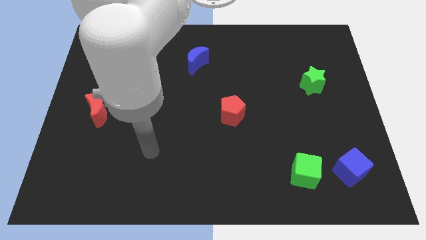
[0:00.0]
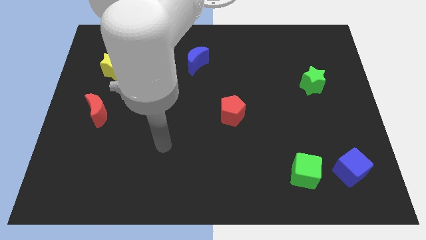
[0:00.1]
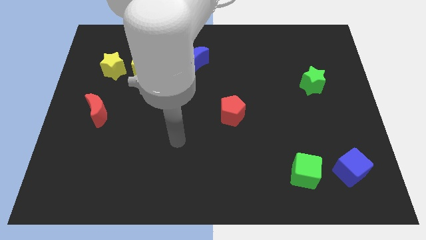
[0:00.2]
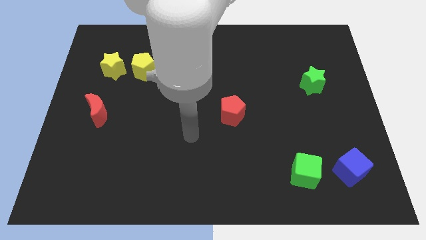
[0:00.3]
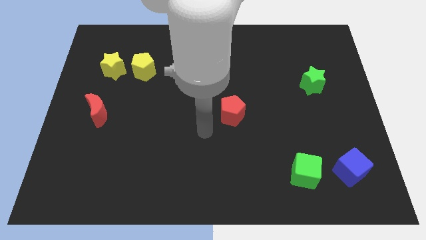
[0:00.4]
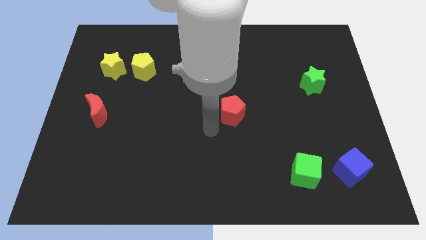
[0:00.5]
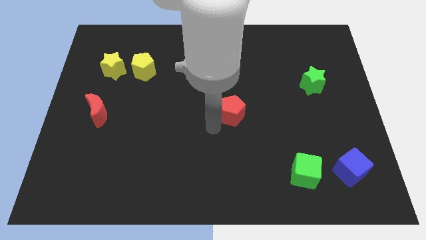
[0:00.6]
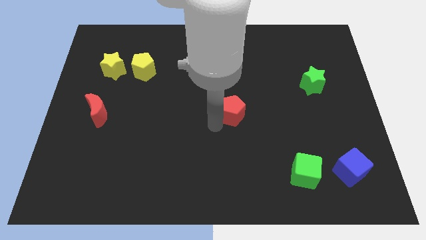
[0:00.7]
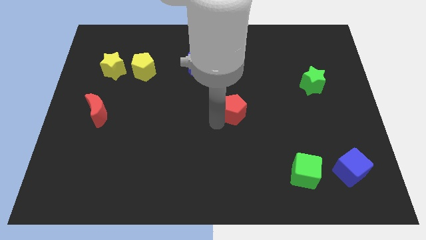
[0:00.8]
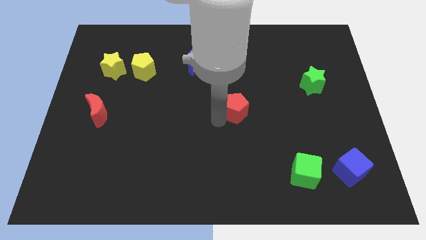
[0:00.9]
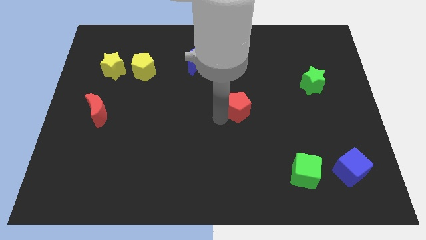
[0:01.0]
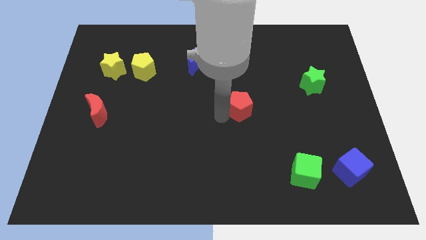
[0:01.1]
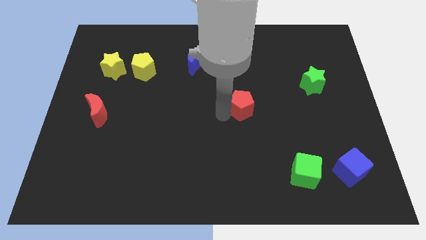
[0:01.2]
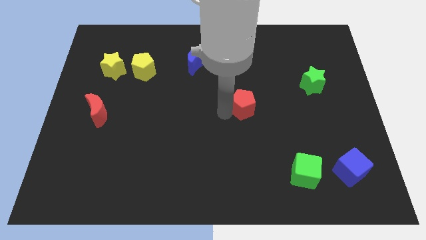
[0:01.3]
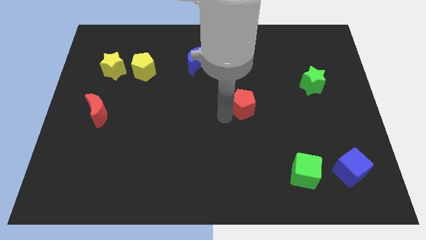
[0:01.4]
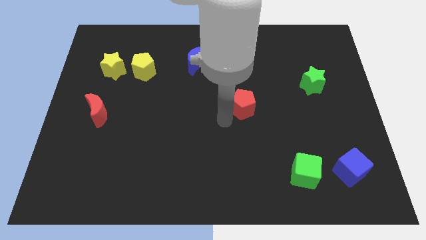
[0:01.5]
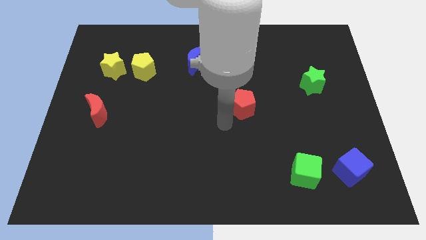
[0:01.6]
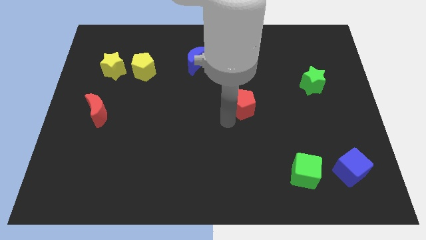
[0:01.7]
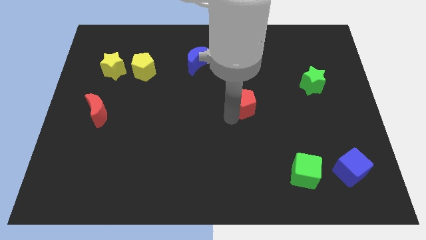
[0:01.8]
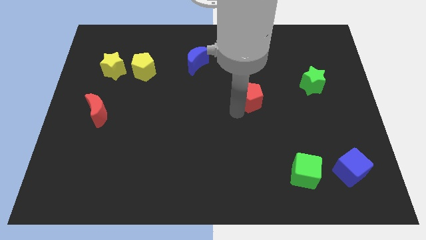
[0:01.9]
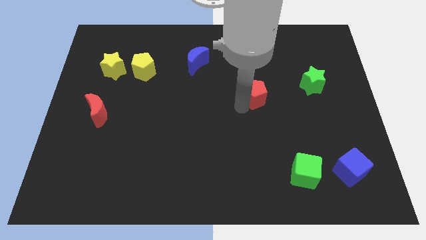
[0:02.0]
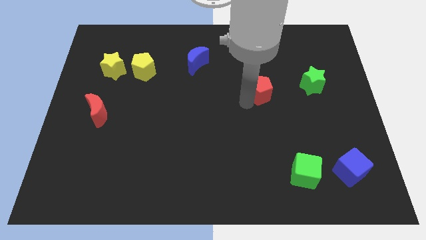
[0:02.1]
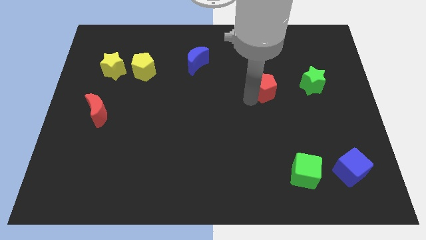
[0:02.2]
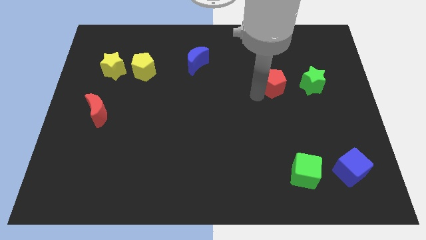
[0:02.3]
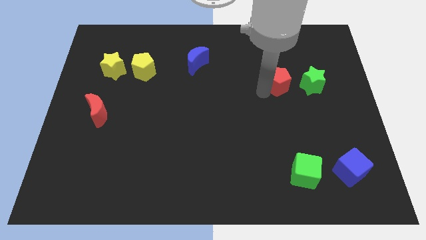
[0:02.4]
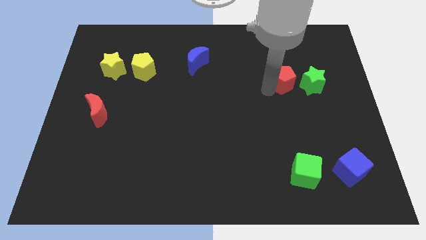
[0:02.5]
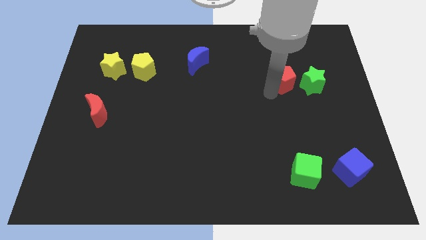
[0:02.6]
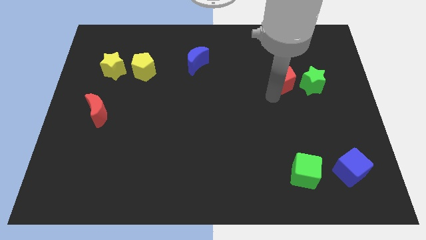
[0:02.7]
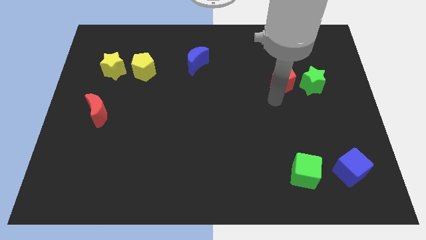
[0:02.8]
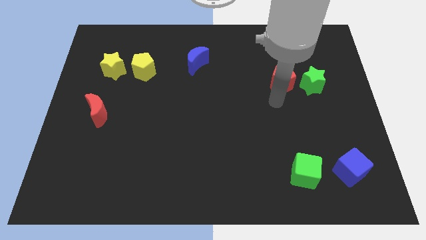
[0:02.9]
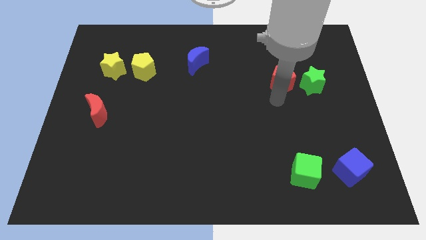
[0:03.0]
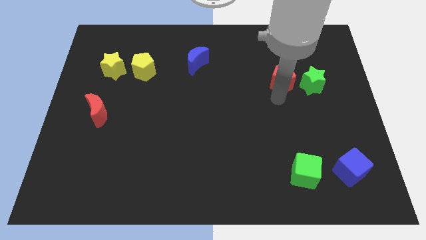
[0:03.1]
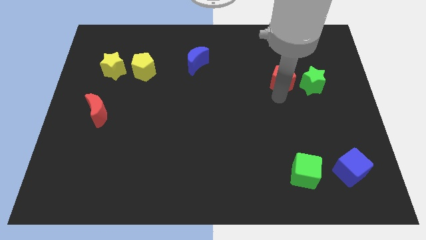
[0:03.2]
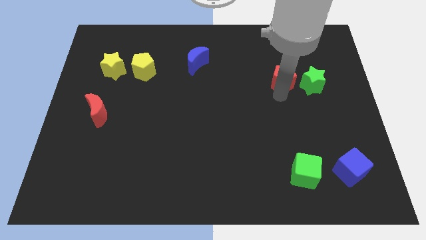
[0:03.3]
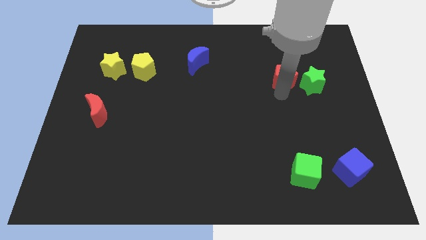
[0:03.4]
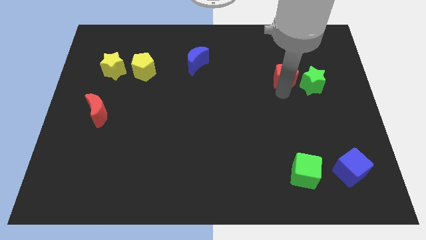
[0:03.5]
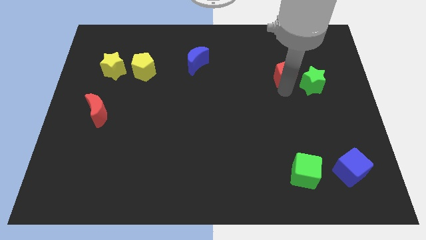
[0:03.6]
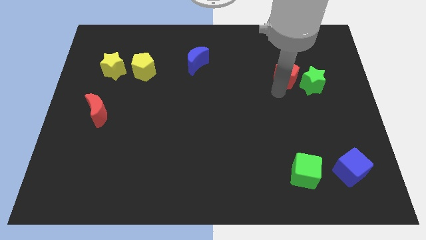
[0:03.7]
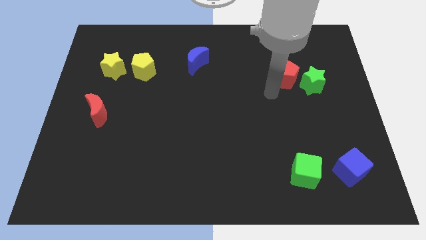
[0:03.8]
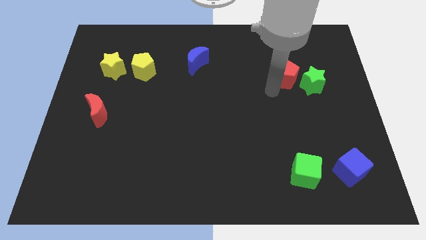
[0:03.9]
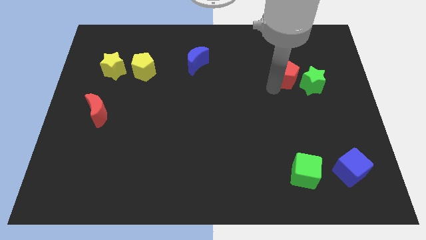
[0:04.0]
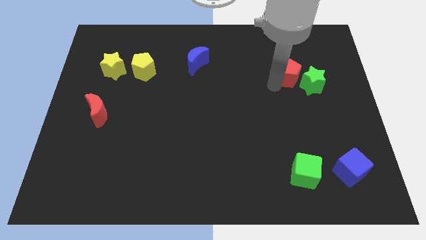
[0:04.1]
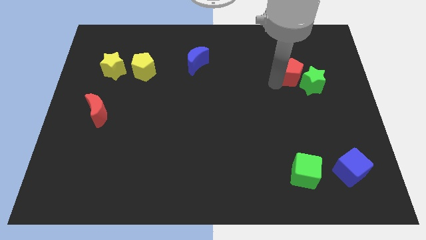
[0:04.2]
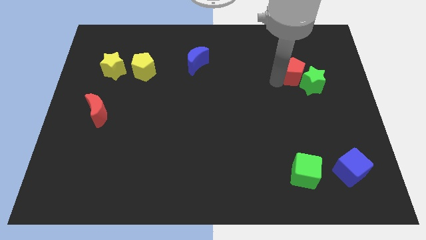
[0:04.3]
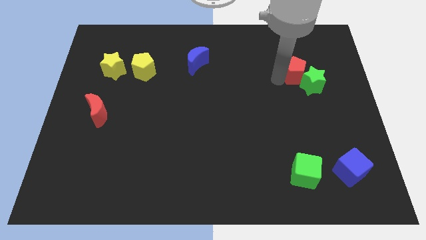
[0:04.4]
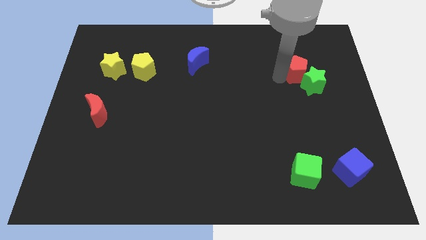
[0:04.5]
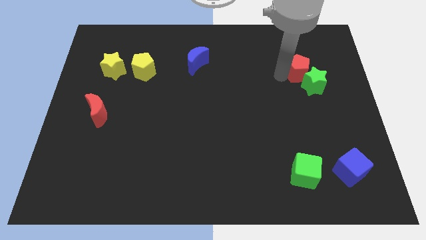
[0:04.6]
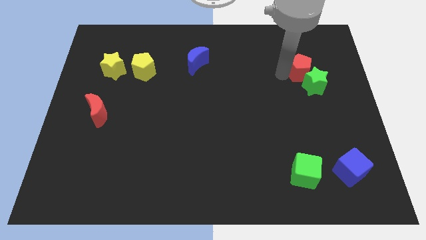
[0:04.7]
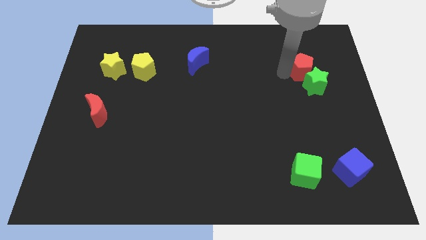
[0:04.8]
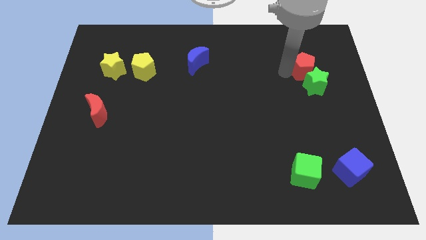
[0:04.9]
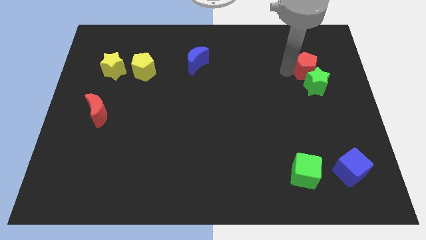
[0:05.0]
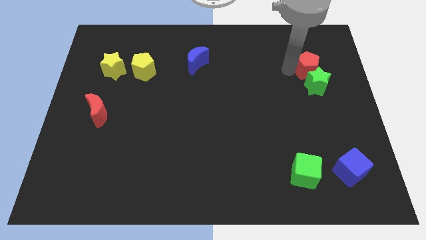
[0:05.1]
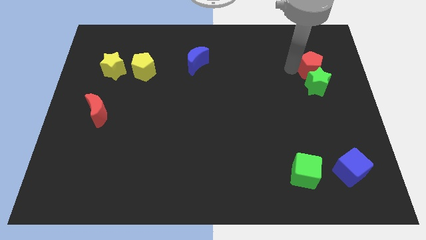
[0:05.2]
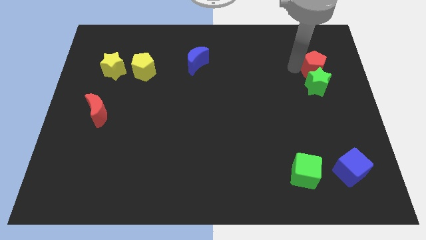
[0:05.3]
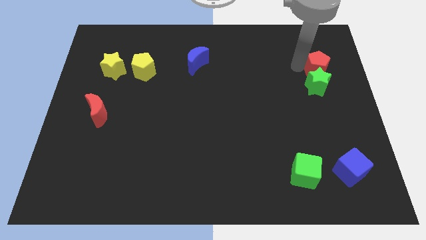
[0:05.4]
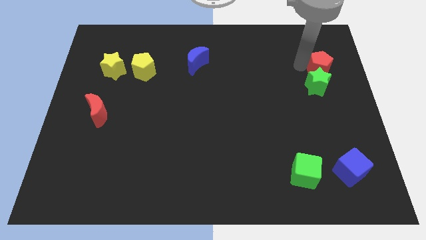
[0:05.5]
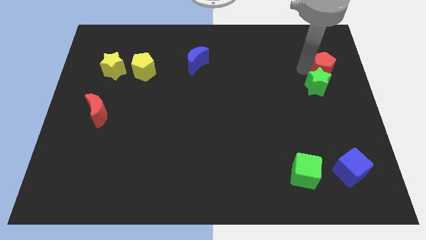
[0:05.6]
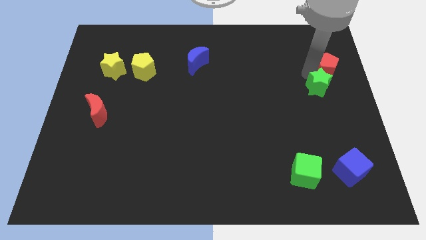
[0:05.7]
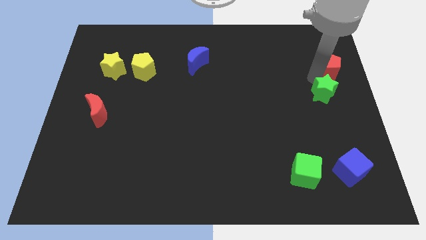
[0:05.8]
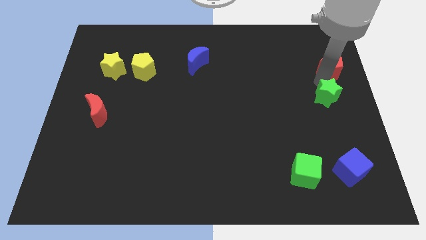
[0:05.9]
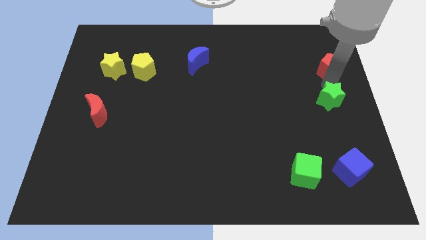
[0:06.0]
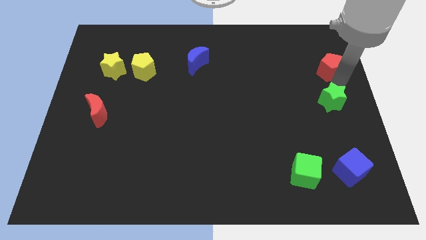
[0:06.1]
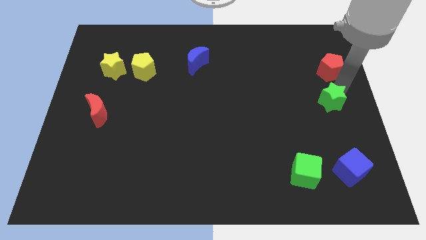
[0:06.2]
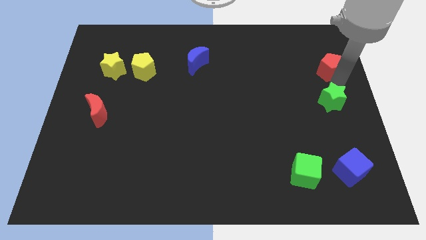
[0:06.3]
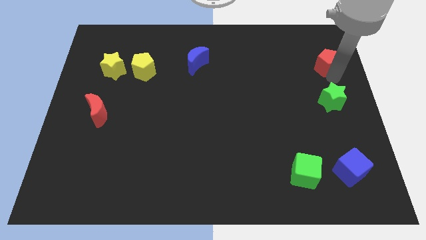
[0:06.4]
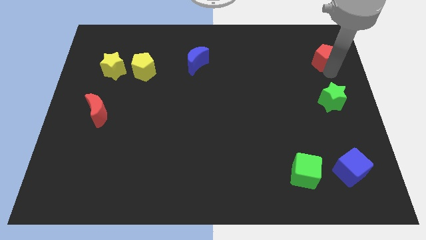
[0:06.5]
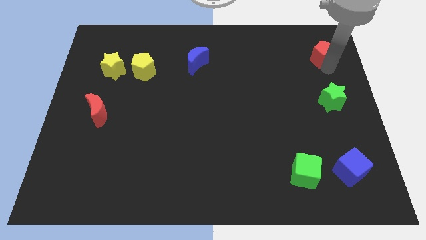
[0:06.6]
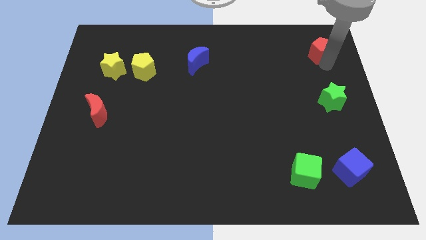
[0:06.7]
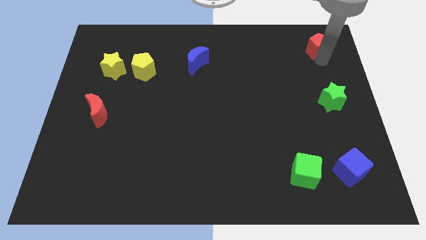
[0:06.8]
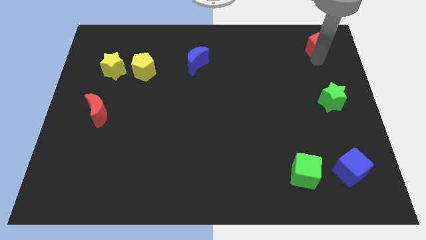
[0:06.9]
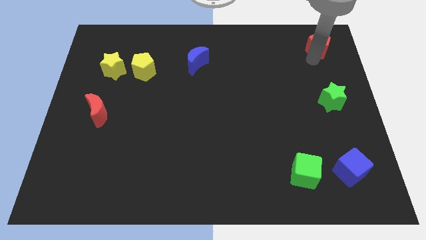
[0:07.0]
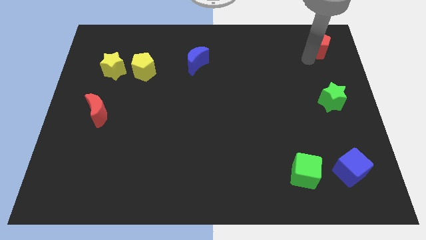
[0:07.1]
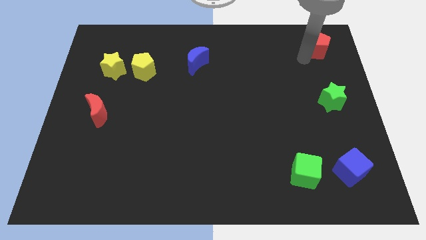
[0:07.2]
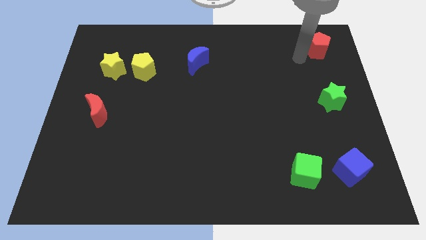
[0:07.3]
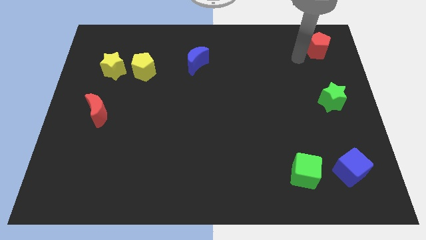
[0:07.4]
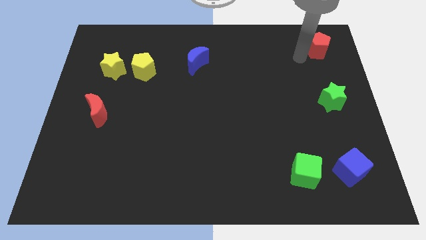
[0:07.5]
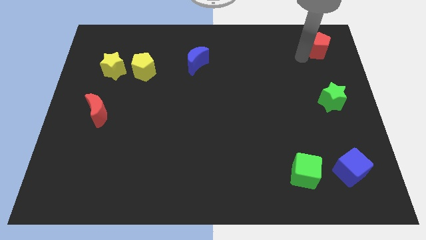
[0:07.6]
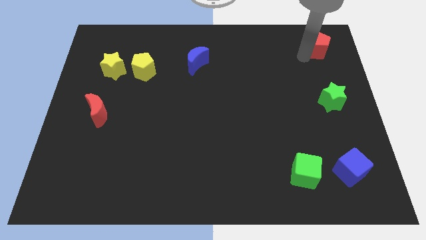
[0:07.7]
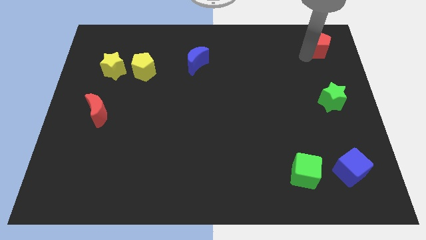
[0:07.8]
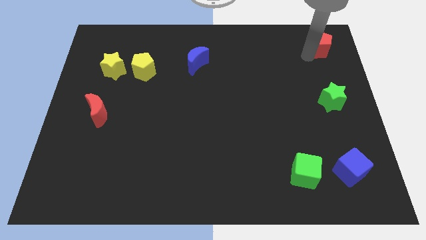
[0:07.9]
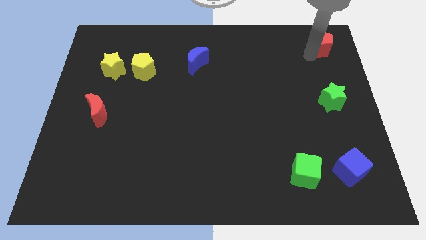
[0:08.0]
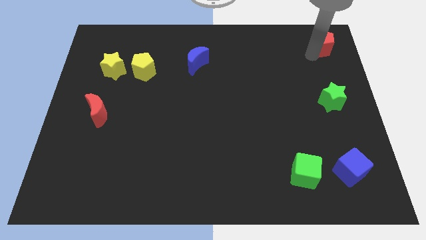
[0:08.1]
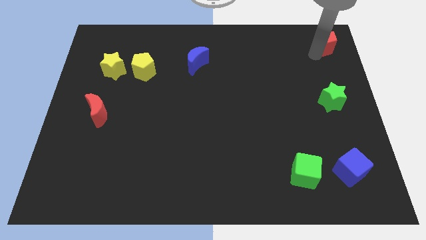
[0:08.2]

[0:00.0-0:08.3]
move the red pentagon to the top right corner
